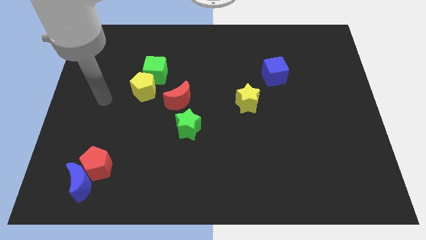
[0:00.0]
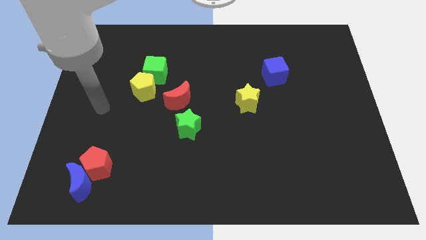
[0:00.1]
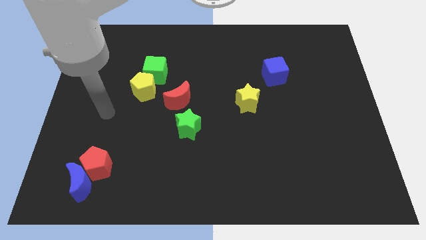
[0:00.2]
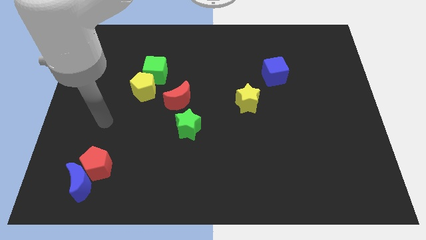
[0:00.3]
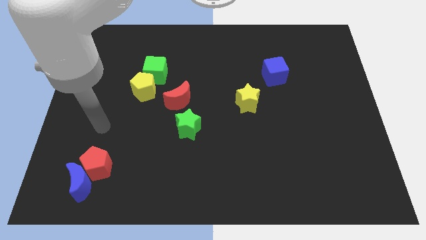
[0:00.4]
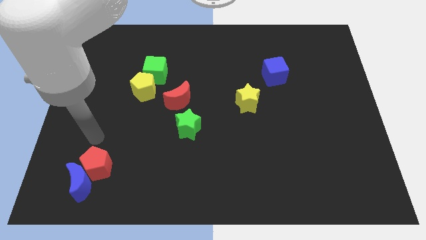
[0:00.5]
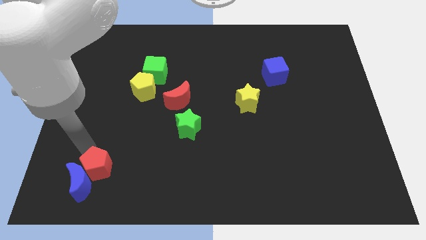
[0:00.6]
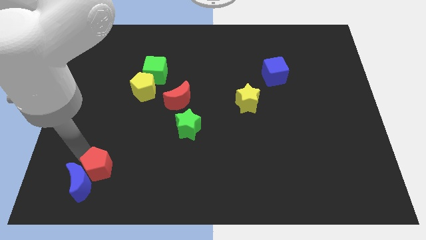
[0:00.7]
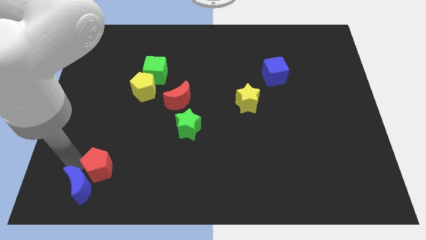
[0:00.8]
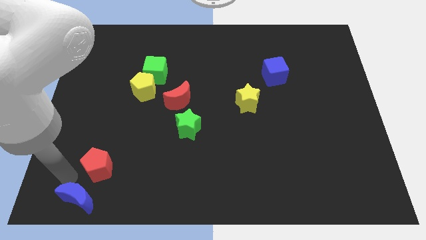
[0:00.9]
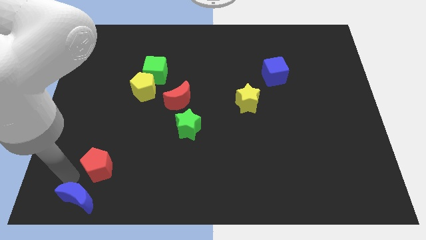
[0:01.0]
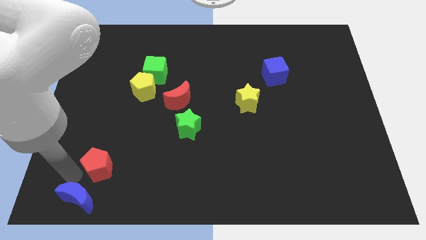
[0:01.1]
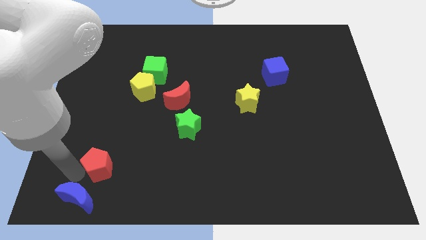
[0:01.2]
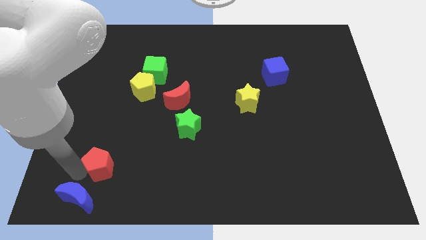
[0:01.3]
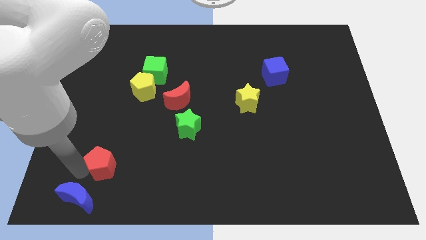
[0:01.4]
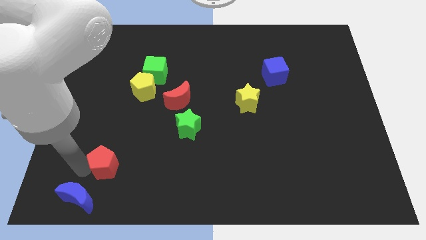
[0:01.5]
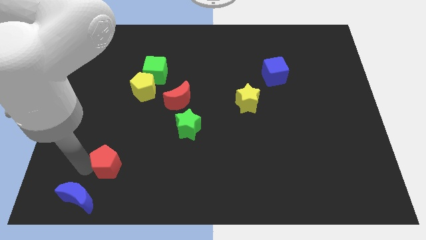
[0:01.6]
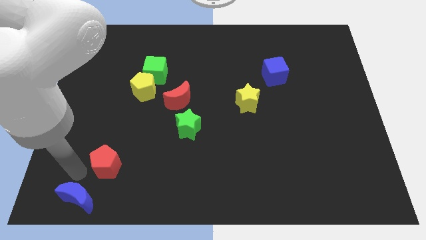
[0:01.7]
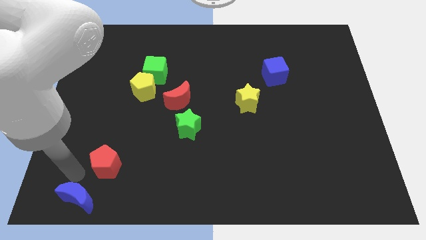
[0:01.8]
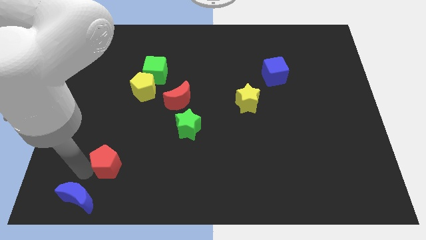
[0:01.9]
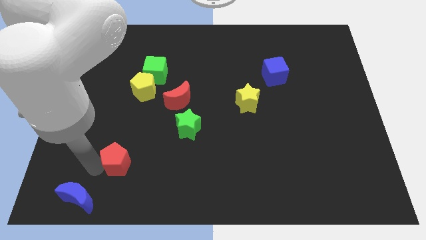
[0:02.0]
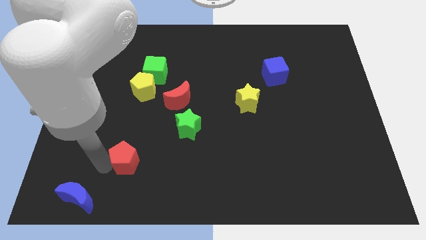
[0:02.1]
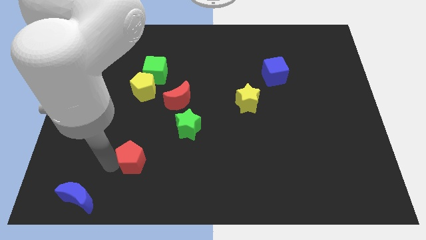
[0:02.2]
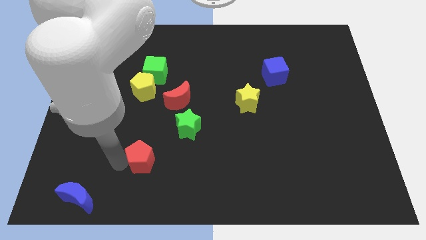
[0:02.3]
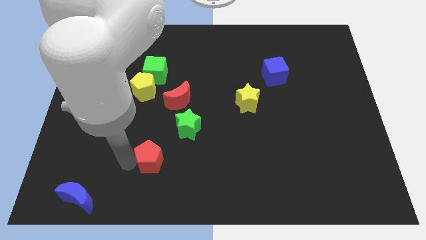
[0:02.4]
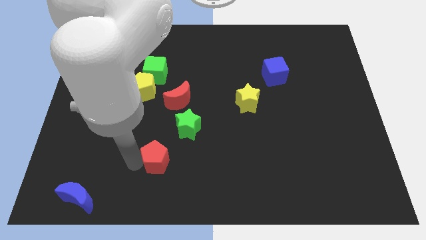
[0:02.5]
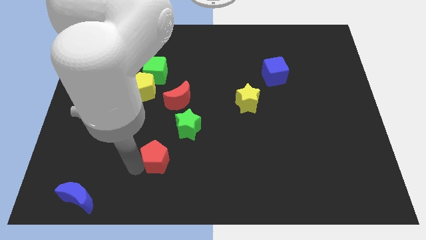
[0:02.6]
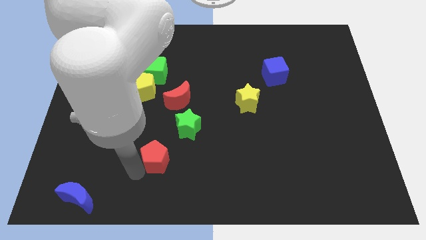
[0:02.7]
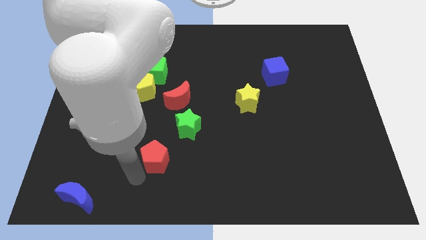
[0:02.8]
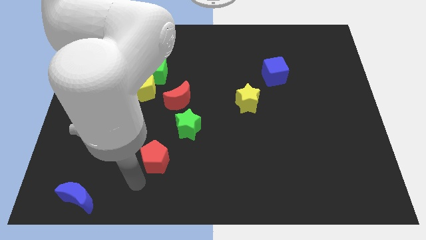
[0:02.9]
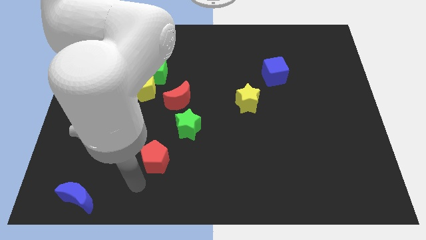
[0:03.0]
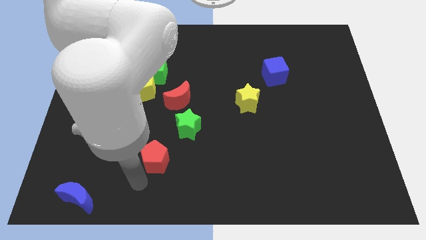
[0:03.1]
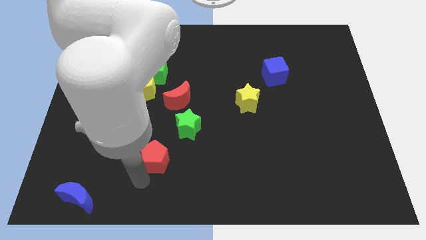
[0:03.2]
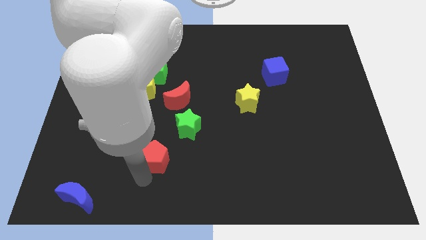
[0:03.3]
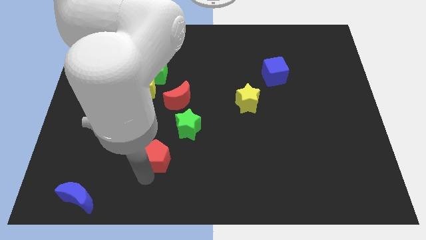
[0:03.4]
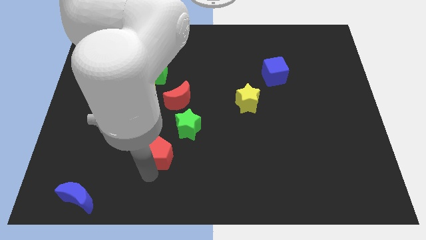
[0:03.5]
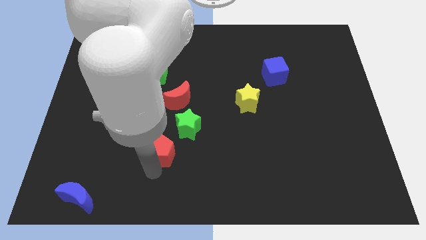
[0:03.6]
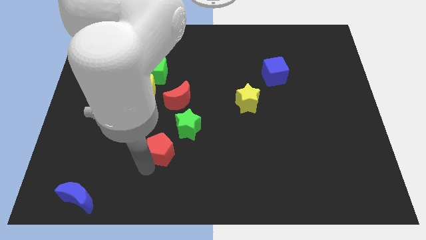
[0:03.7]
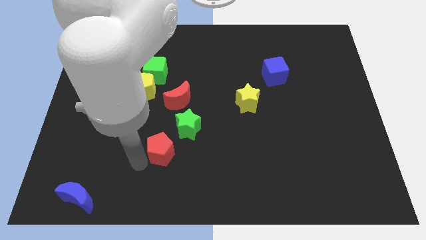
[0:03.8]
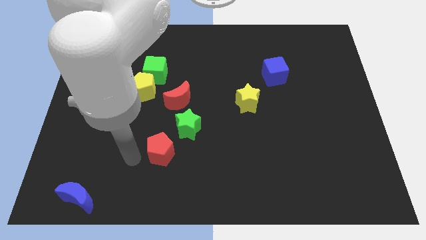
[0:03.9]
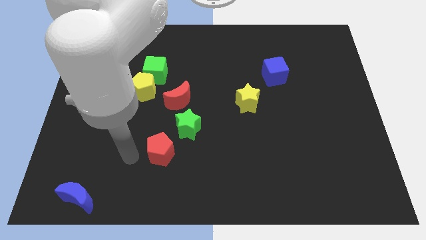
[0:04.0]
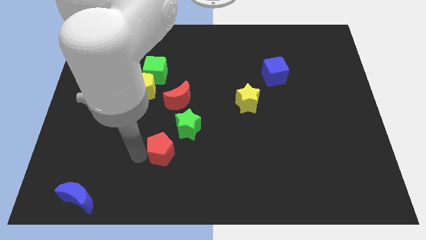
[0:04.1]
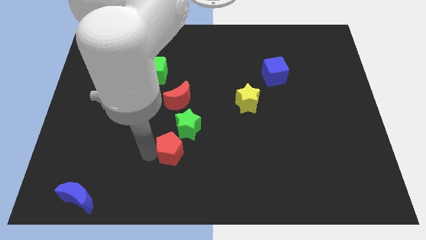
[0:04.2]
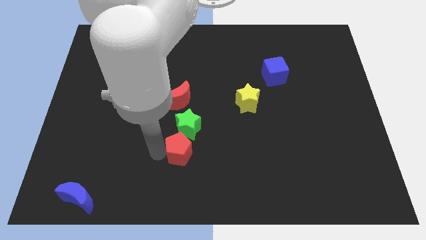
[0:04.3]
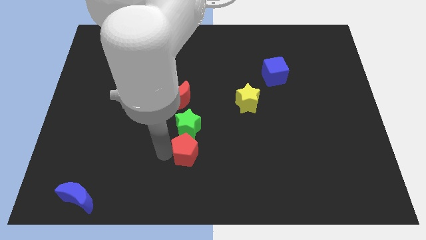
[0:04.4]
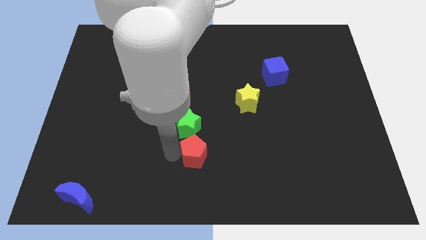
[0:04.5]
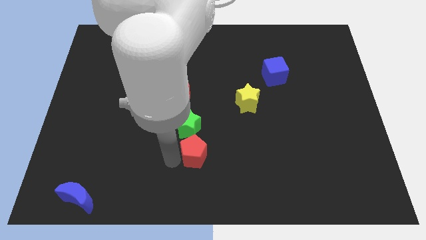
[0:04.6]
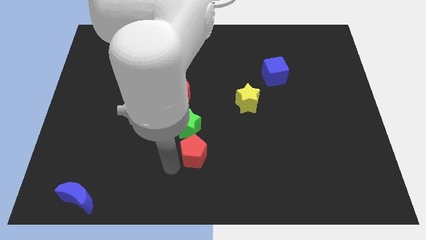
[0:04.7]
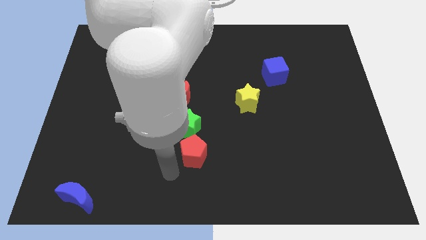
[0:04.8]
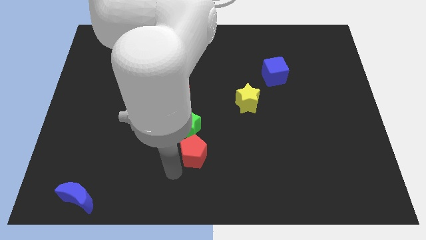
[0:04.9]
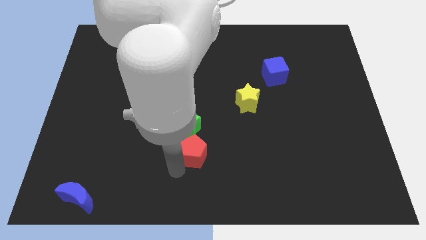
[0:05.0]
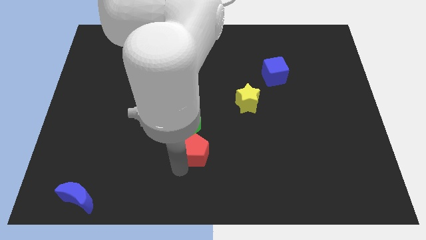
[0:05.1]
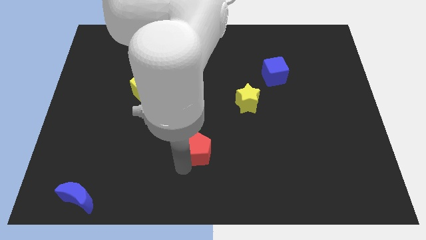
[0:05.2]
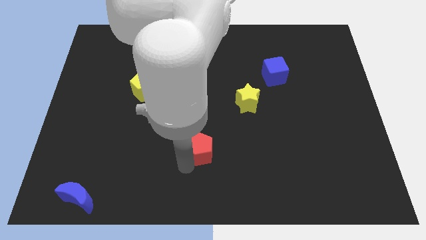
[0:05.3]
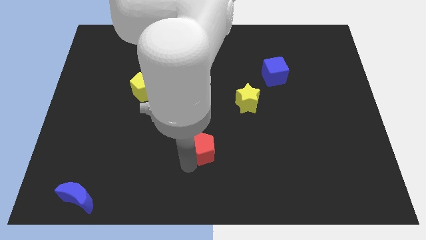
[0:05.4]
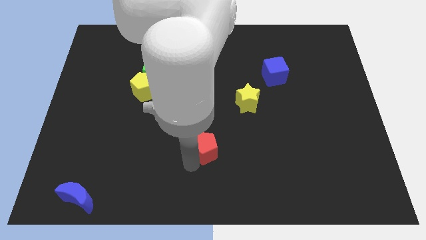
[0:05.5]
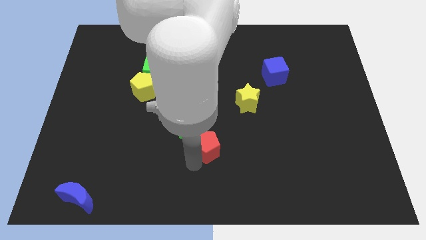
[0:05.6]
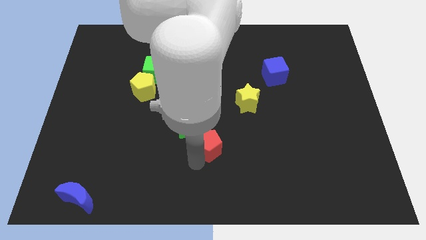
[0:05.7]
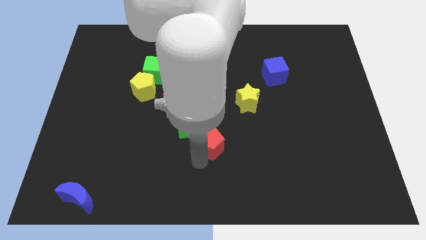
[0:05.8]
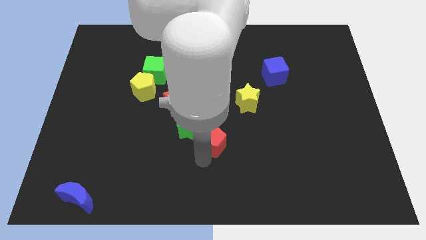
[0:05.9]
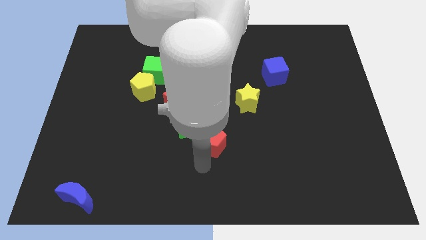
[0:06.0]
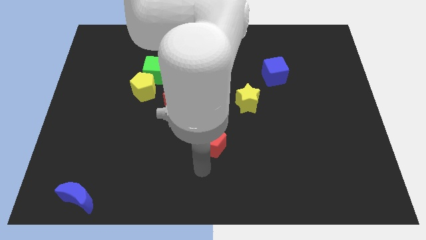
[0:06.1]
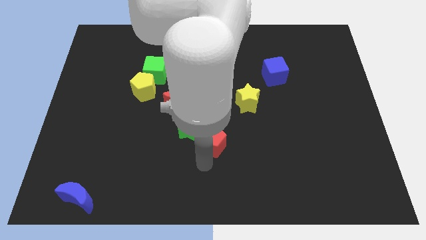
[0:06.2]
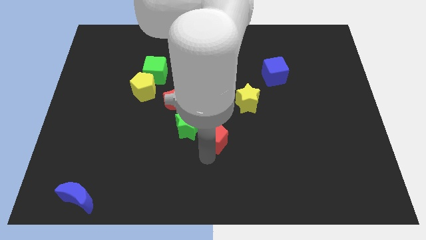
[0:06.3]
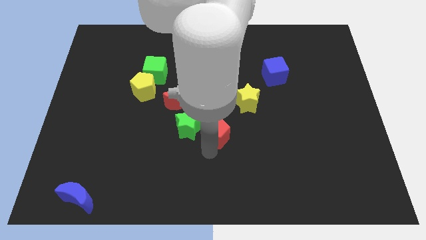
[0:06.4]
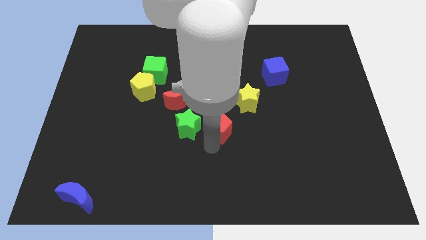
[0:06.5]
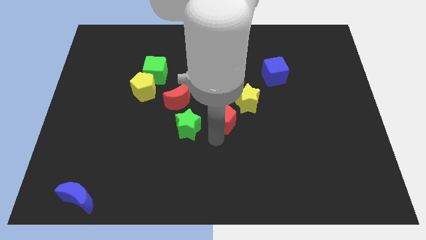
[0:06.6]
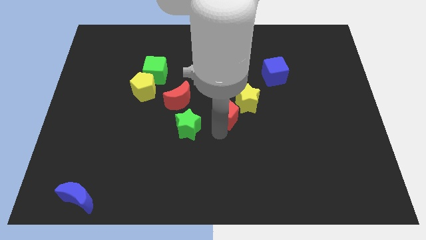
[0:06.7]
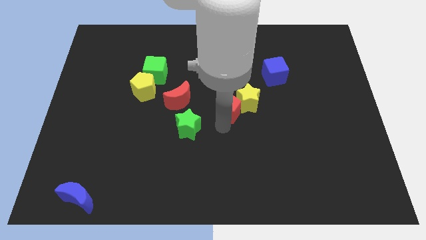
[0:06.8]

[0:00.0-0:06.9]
push the red pentagon to the right side of the red moon

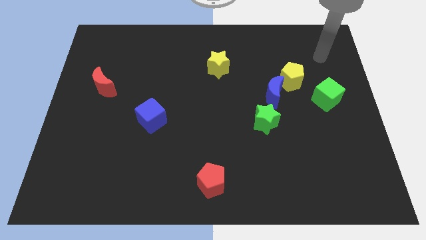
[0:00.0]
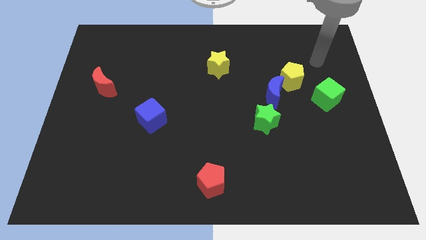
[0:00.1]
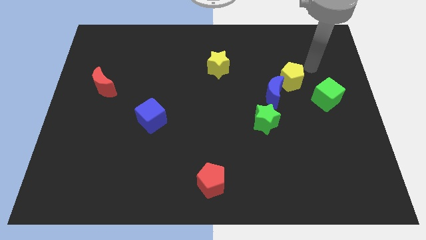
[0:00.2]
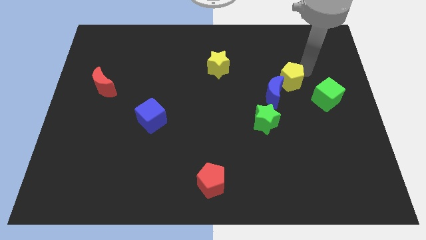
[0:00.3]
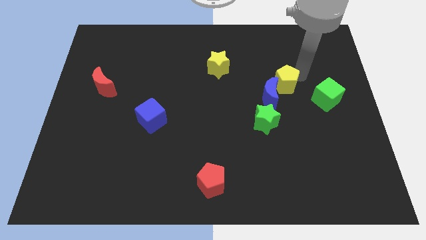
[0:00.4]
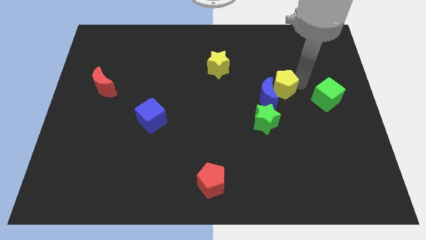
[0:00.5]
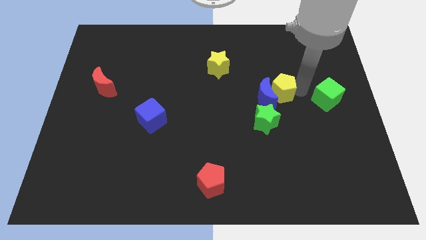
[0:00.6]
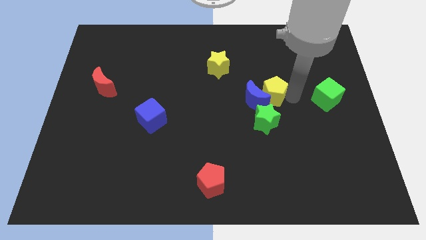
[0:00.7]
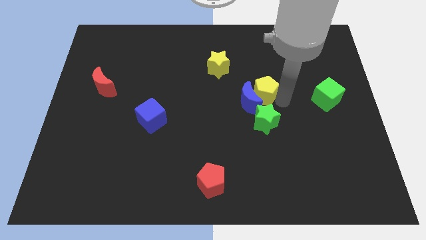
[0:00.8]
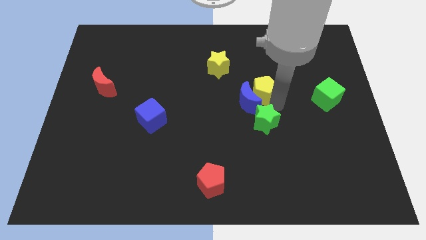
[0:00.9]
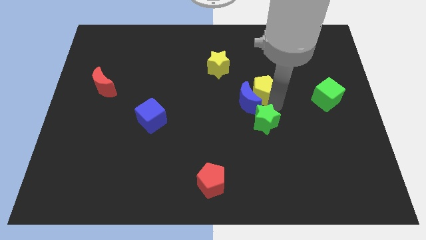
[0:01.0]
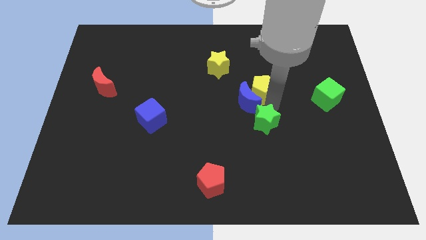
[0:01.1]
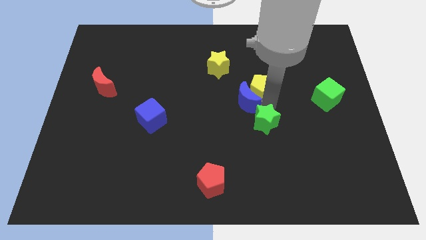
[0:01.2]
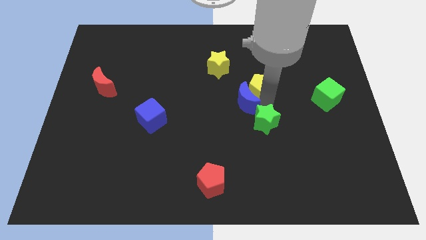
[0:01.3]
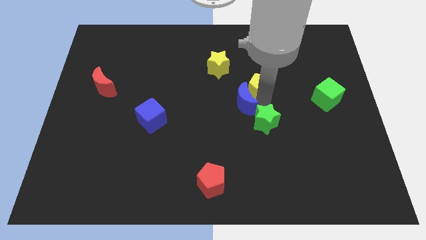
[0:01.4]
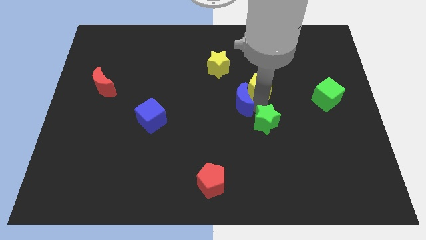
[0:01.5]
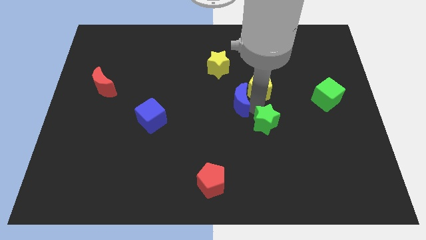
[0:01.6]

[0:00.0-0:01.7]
slide the blue moon to the bottom of the yellow star
